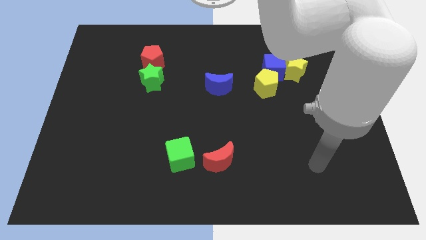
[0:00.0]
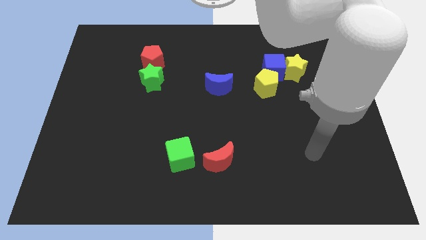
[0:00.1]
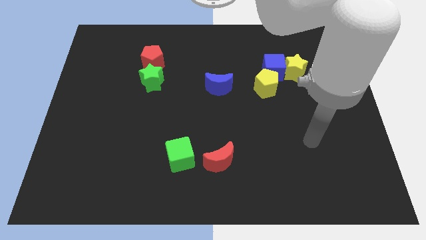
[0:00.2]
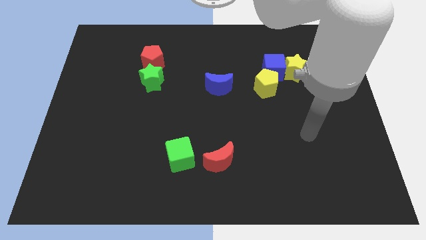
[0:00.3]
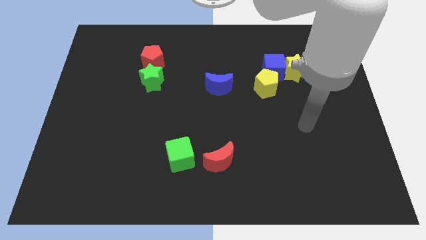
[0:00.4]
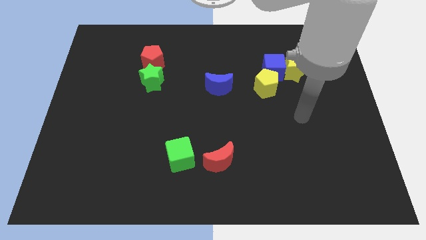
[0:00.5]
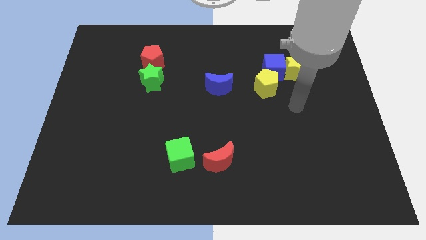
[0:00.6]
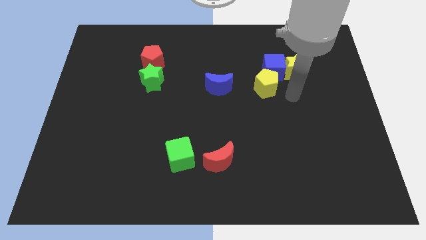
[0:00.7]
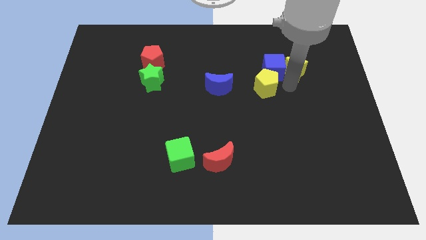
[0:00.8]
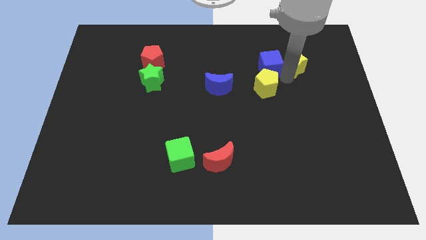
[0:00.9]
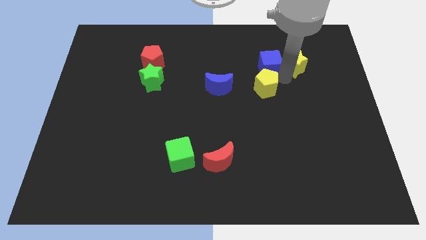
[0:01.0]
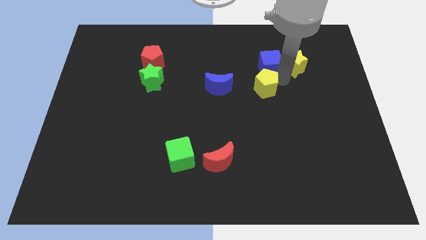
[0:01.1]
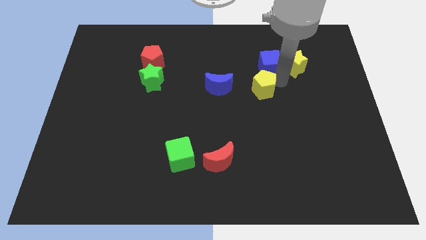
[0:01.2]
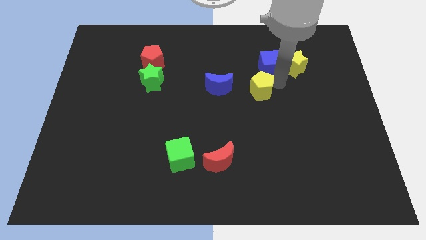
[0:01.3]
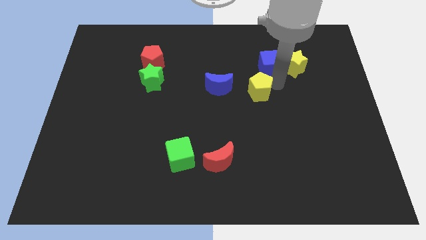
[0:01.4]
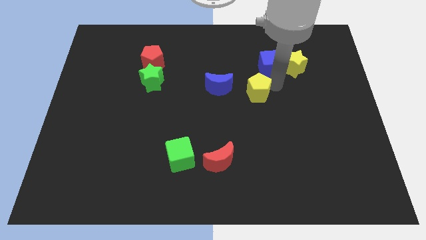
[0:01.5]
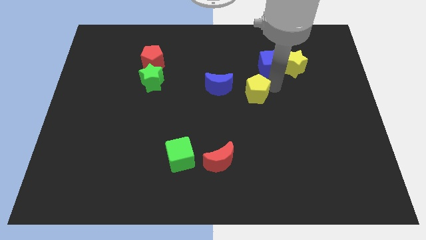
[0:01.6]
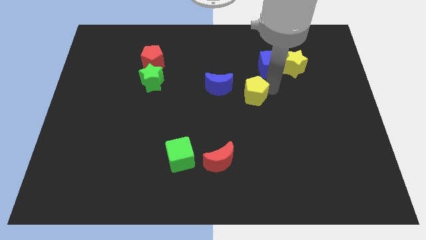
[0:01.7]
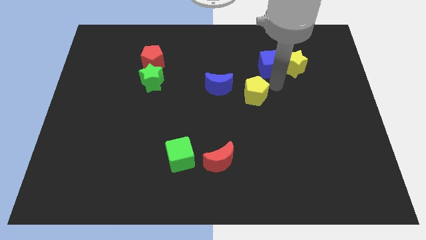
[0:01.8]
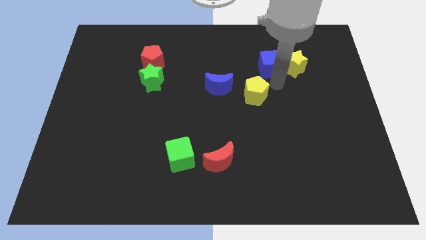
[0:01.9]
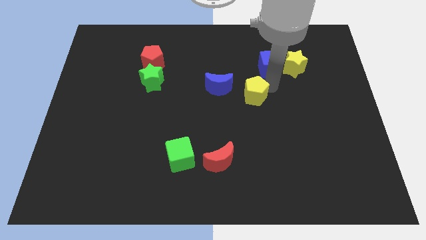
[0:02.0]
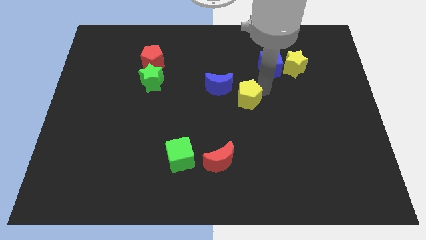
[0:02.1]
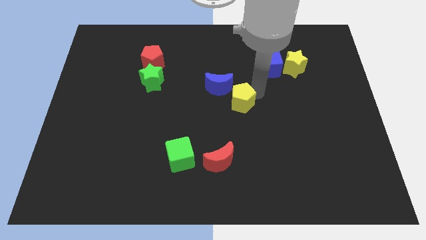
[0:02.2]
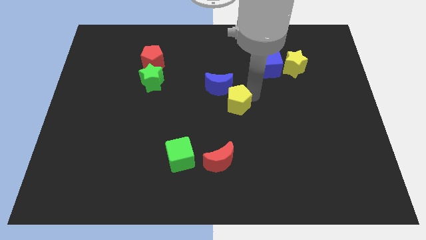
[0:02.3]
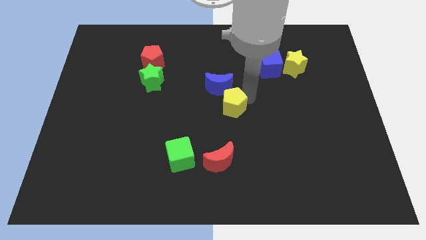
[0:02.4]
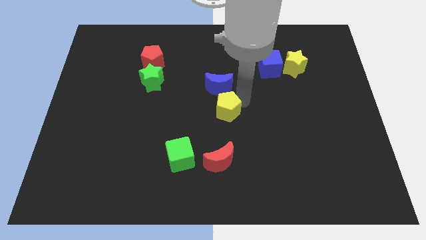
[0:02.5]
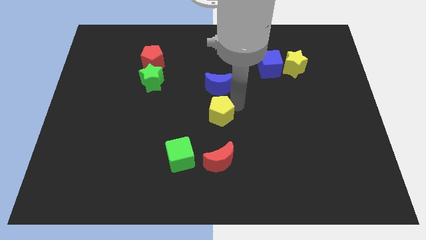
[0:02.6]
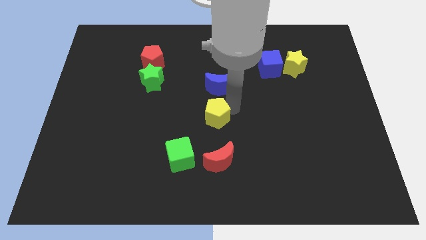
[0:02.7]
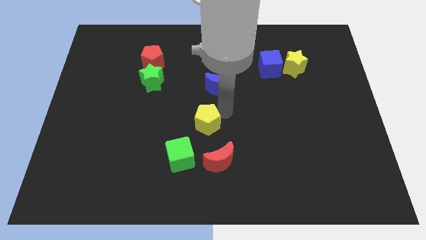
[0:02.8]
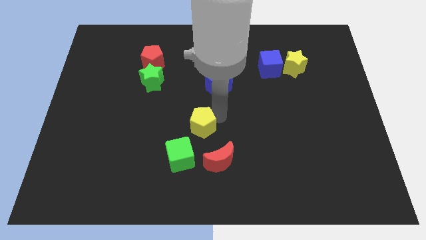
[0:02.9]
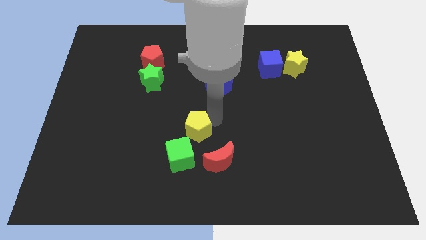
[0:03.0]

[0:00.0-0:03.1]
slide the yellow pentagon downwards and left

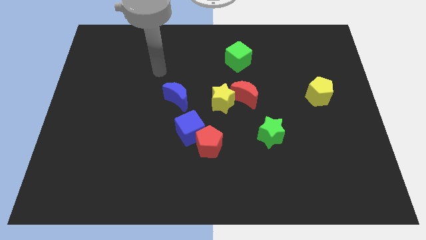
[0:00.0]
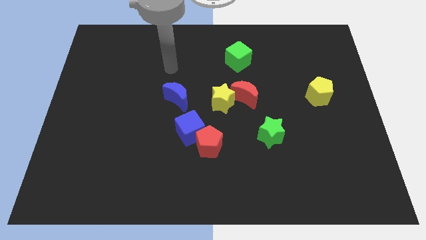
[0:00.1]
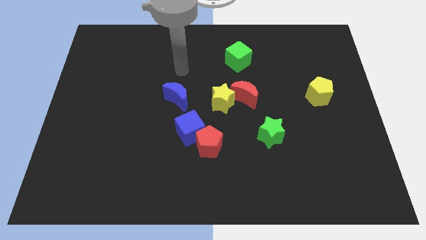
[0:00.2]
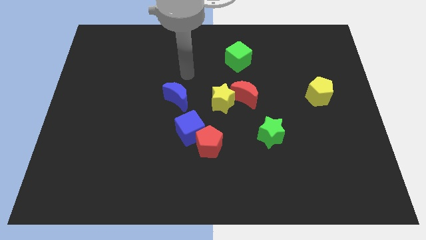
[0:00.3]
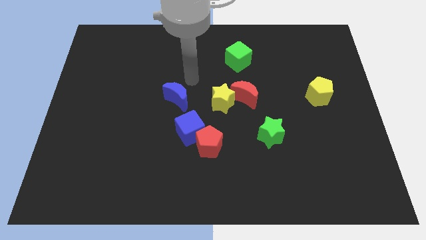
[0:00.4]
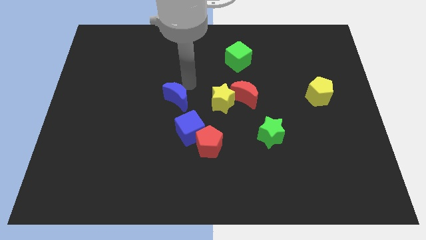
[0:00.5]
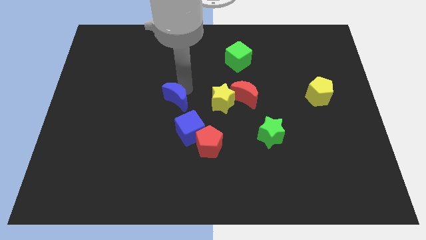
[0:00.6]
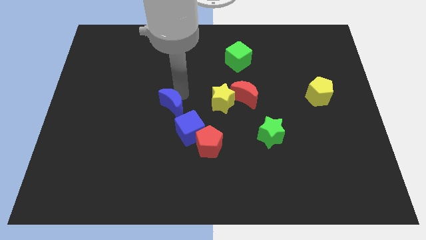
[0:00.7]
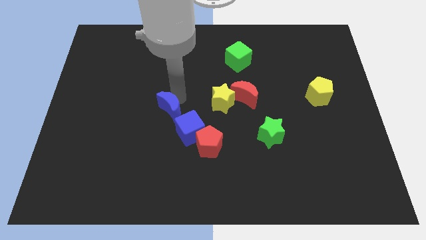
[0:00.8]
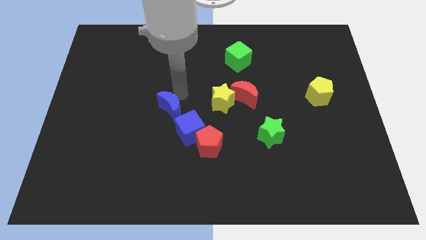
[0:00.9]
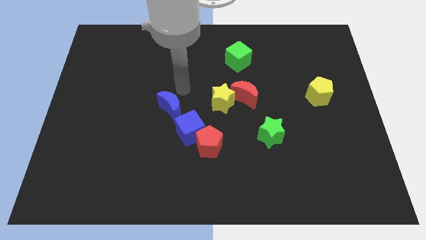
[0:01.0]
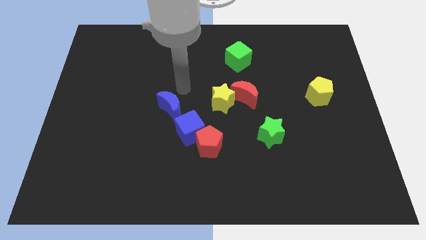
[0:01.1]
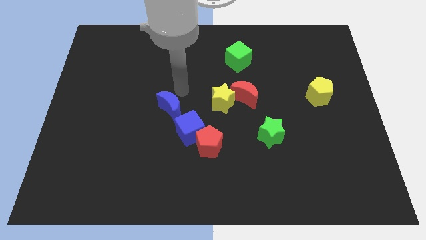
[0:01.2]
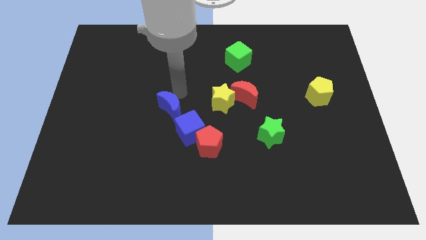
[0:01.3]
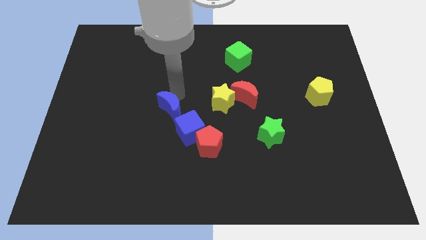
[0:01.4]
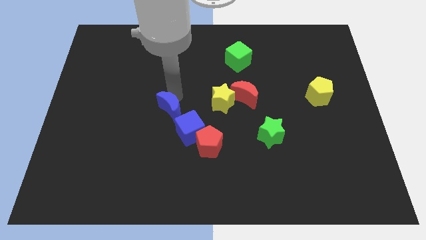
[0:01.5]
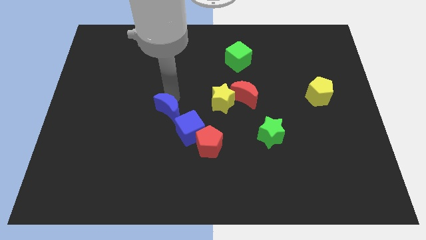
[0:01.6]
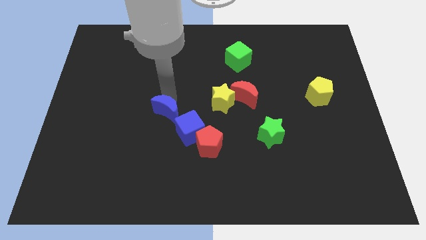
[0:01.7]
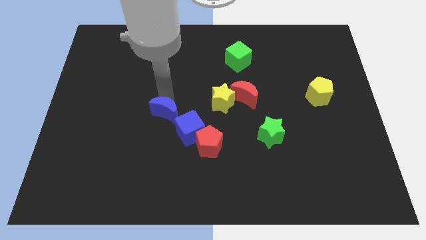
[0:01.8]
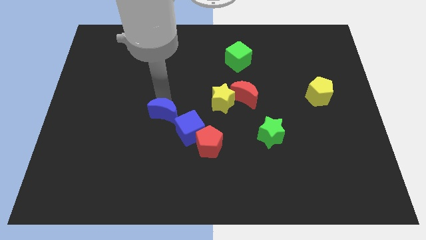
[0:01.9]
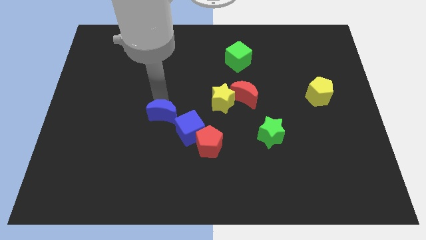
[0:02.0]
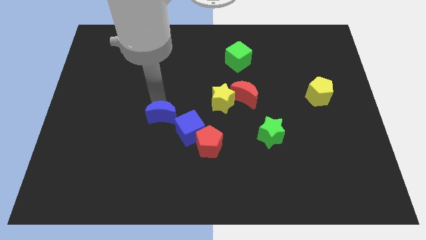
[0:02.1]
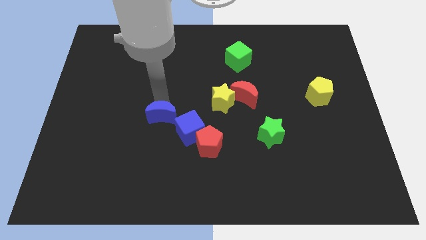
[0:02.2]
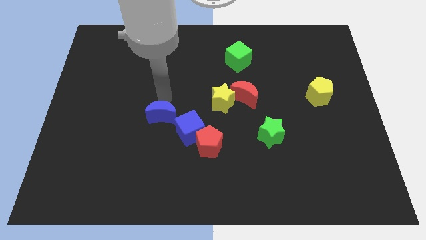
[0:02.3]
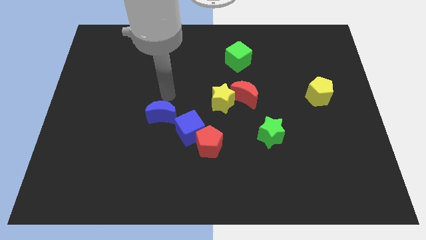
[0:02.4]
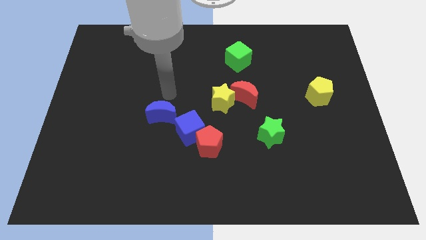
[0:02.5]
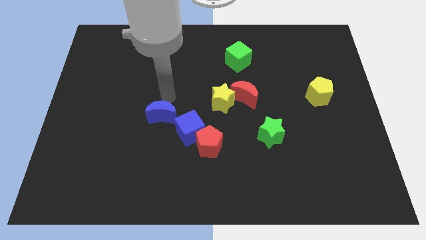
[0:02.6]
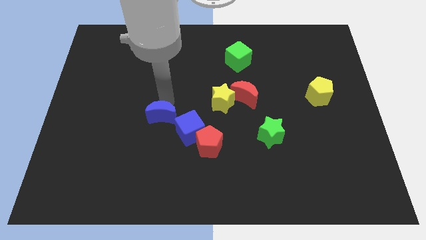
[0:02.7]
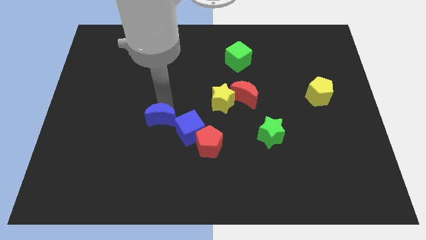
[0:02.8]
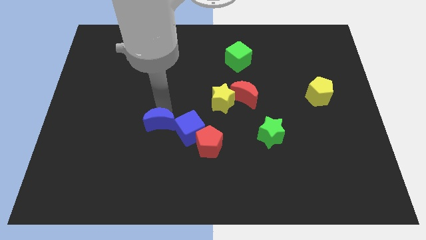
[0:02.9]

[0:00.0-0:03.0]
push the blue moon down a little

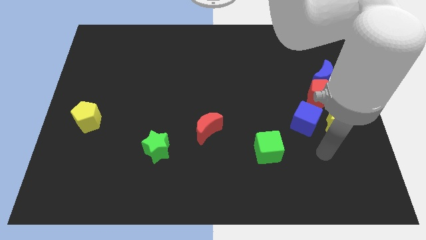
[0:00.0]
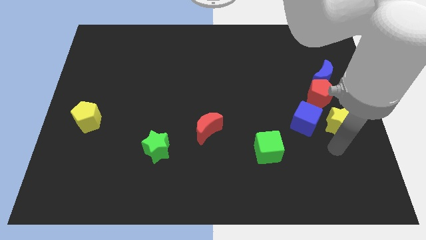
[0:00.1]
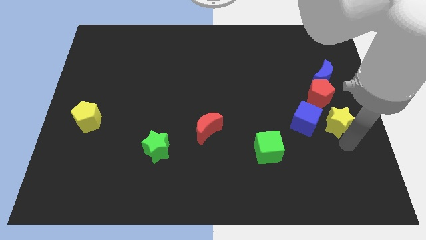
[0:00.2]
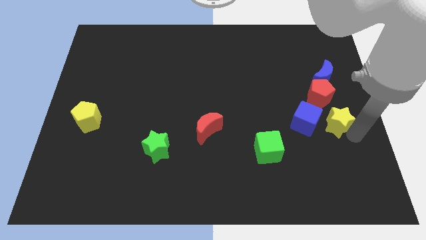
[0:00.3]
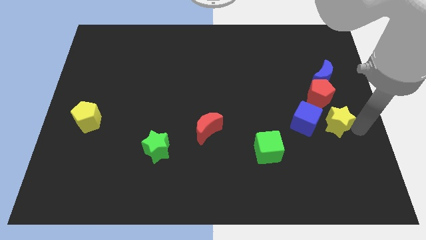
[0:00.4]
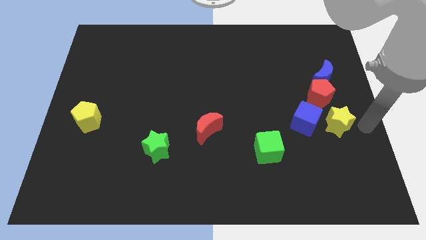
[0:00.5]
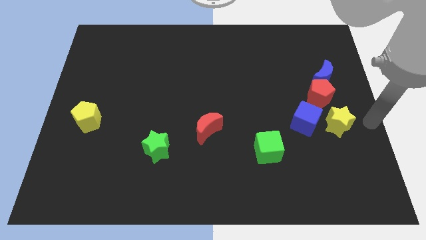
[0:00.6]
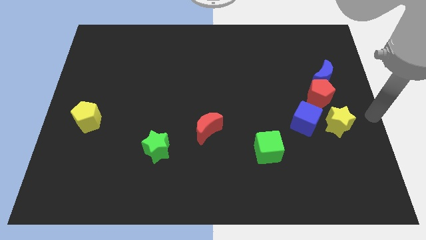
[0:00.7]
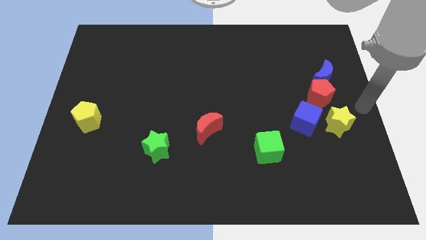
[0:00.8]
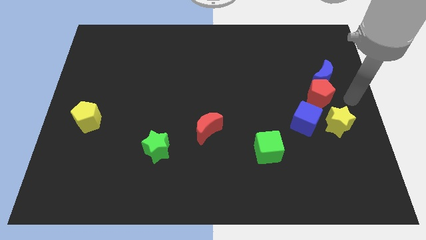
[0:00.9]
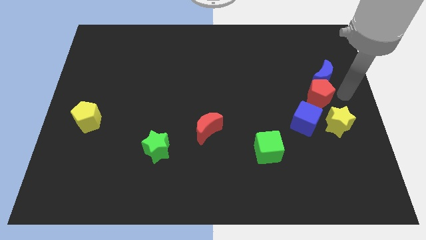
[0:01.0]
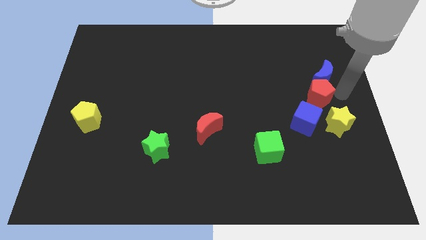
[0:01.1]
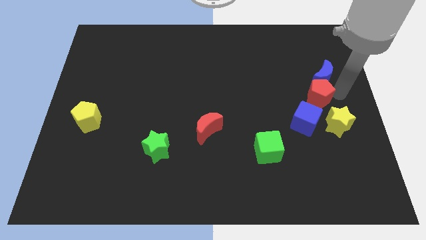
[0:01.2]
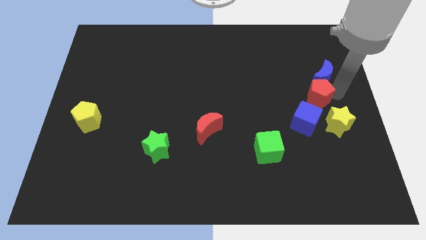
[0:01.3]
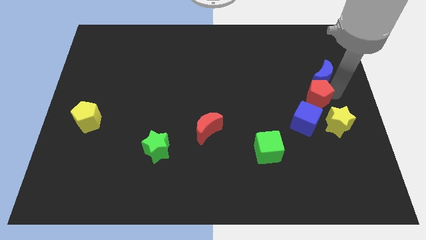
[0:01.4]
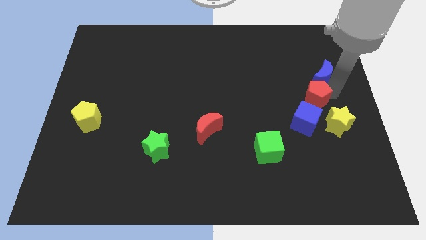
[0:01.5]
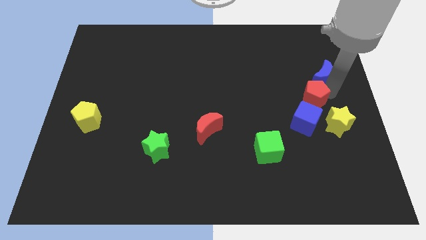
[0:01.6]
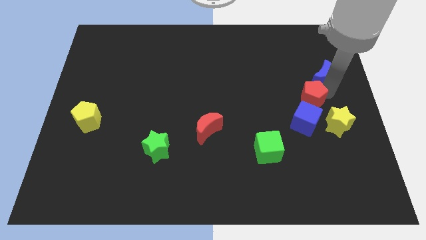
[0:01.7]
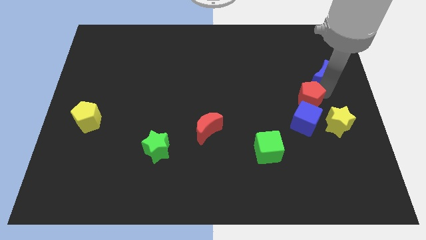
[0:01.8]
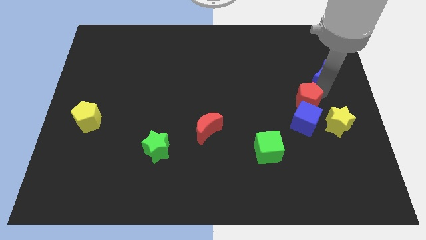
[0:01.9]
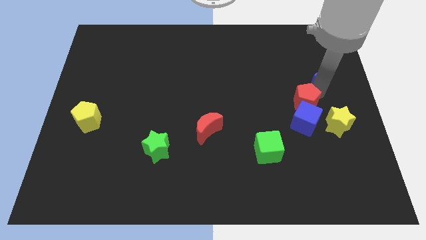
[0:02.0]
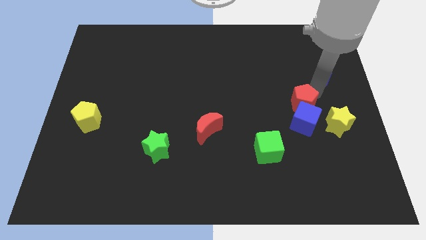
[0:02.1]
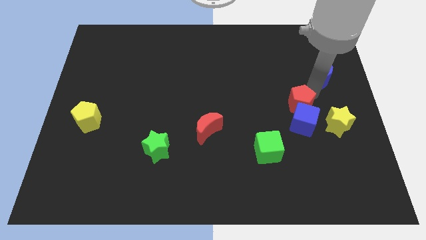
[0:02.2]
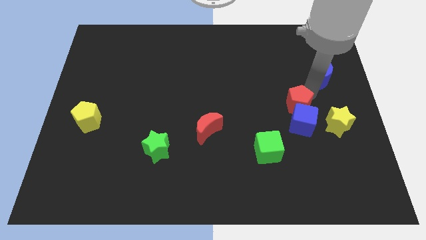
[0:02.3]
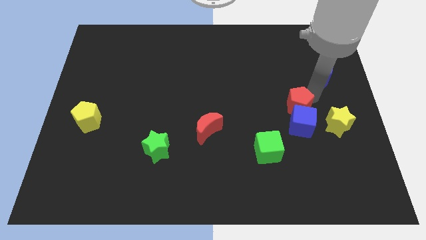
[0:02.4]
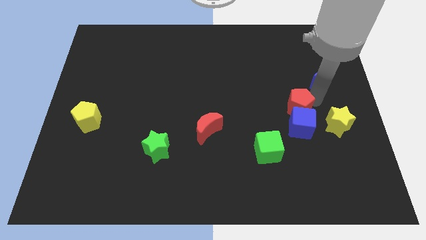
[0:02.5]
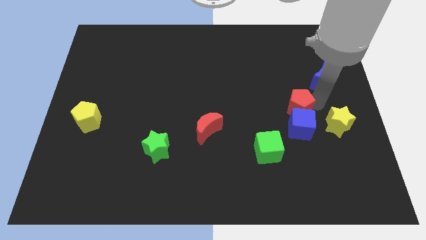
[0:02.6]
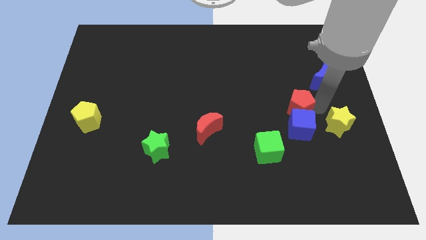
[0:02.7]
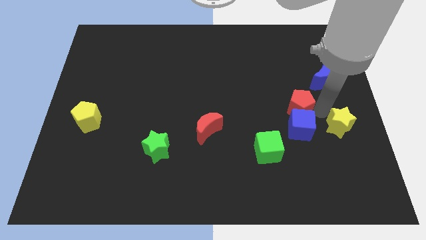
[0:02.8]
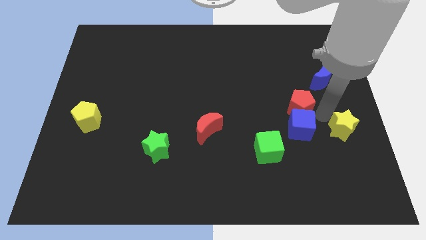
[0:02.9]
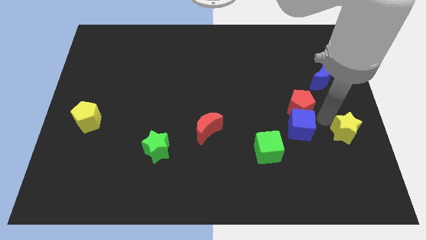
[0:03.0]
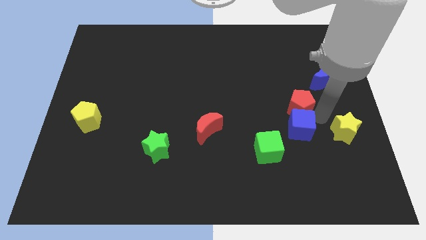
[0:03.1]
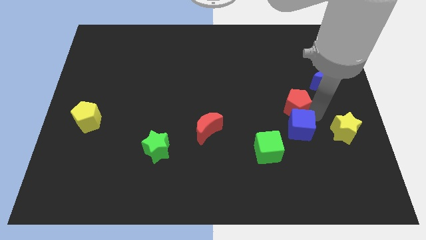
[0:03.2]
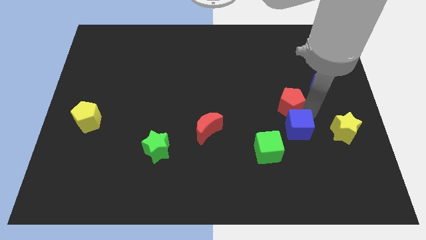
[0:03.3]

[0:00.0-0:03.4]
move the red pentagon left a little bit
